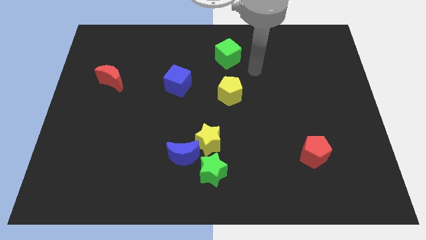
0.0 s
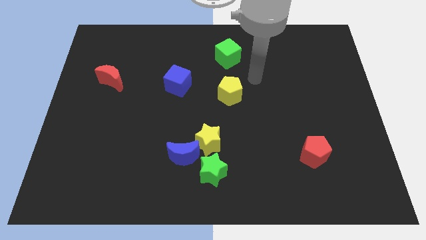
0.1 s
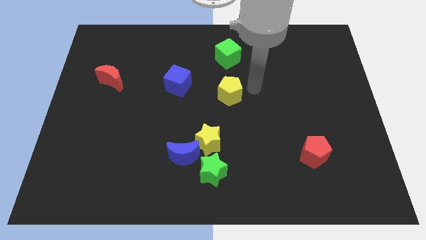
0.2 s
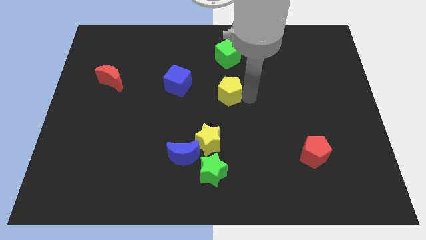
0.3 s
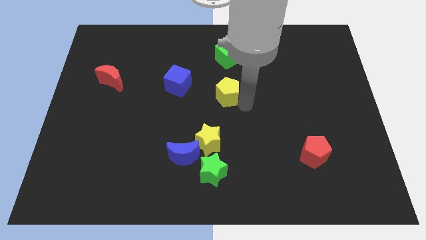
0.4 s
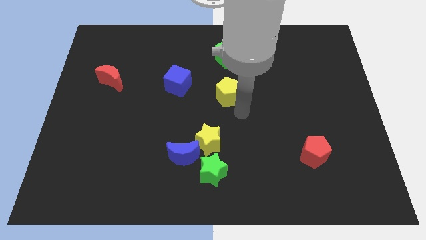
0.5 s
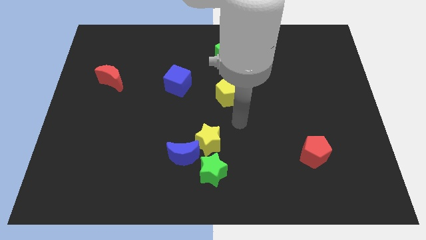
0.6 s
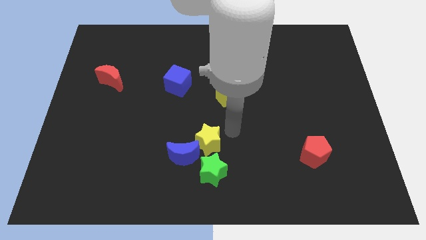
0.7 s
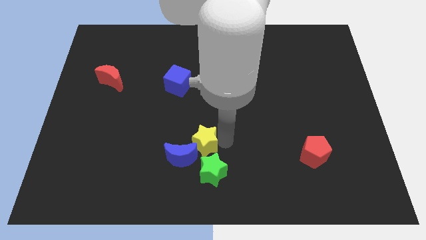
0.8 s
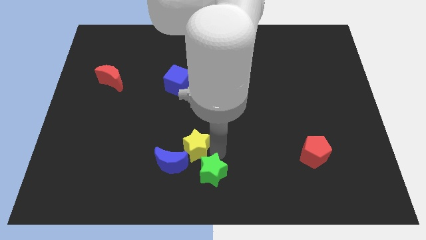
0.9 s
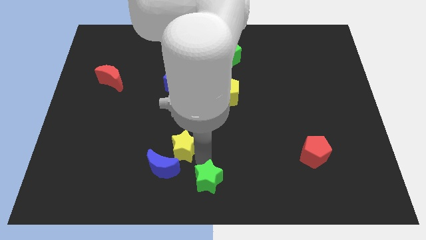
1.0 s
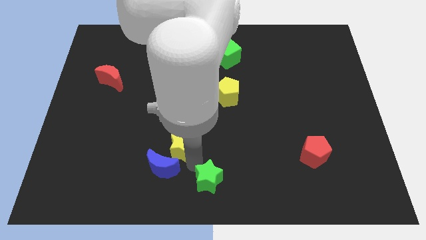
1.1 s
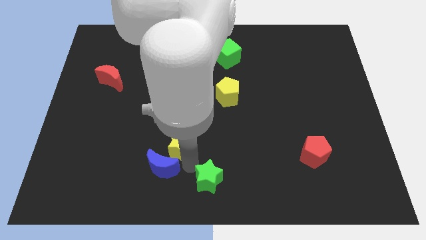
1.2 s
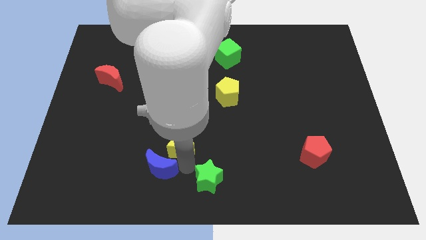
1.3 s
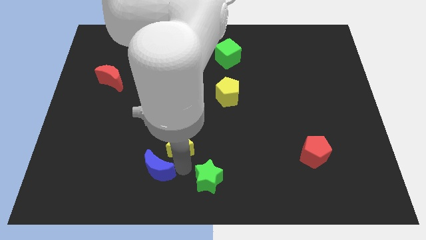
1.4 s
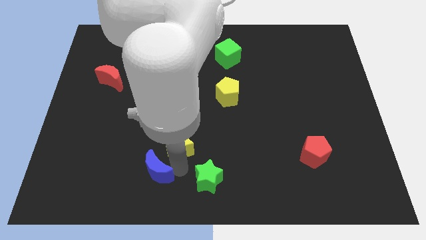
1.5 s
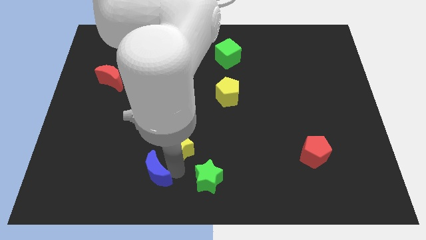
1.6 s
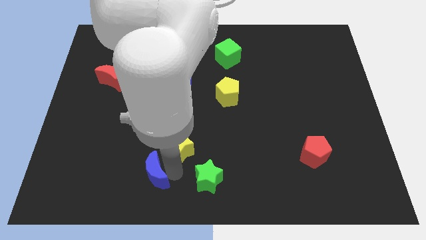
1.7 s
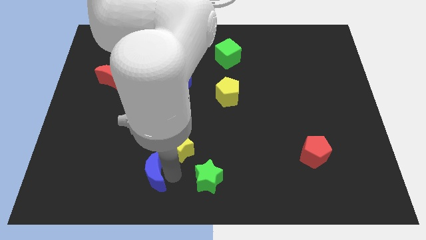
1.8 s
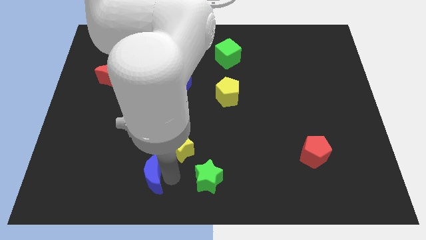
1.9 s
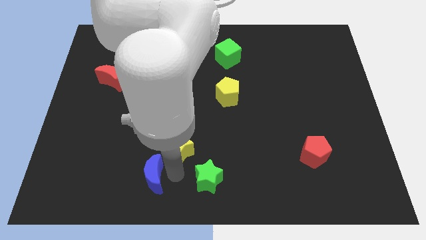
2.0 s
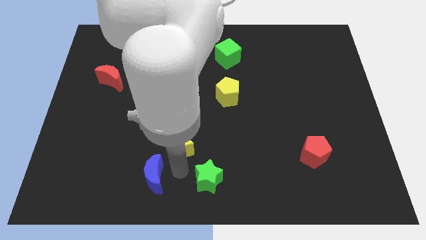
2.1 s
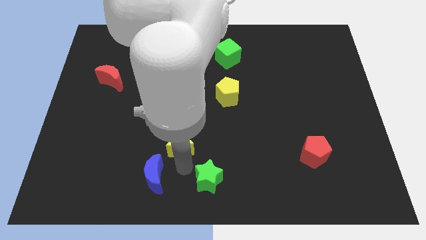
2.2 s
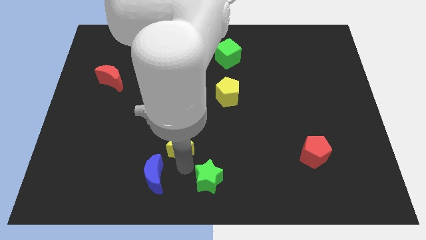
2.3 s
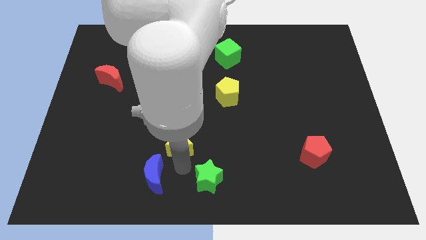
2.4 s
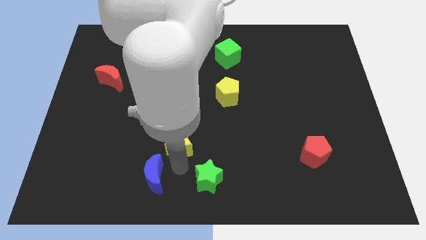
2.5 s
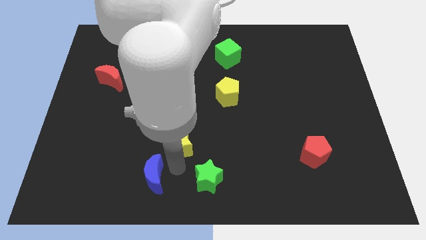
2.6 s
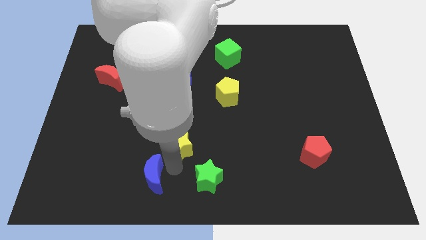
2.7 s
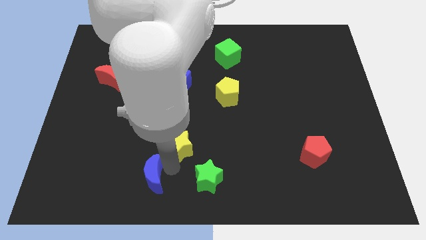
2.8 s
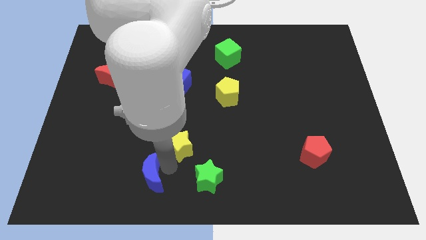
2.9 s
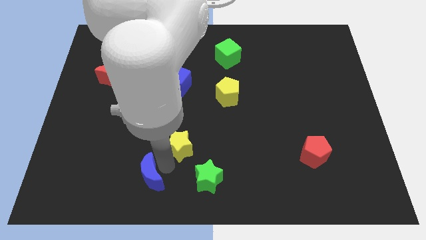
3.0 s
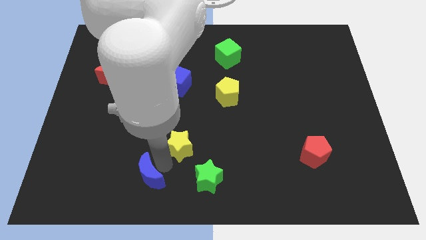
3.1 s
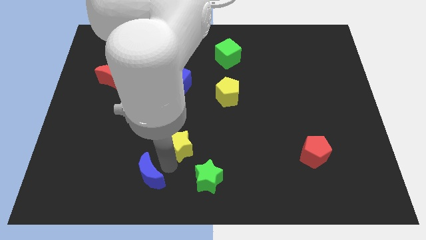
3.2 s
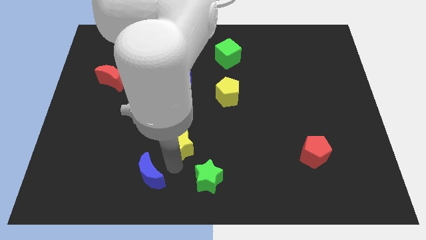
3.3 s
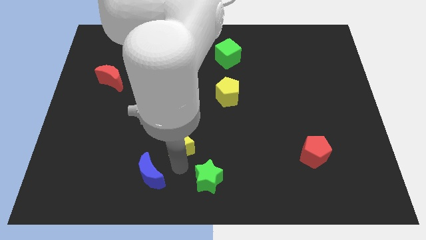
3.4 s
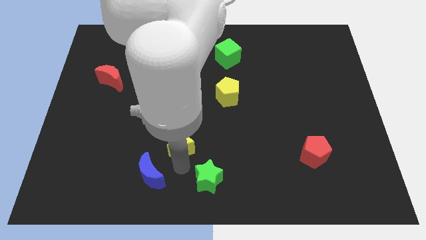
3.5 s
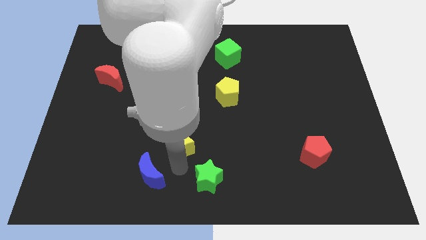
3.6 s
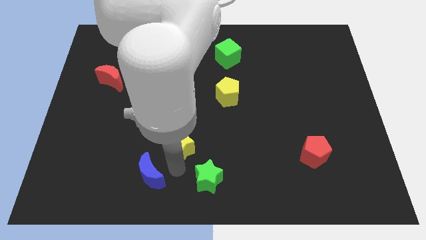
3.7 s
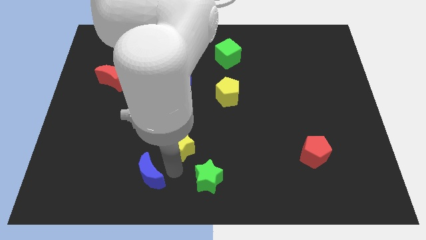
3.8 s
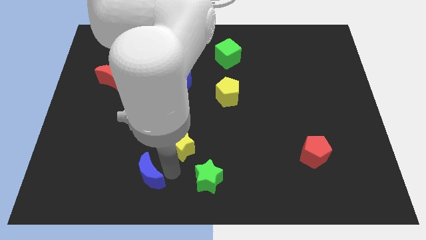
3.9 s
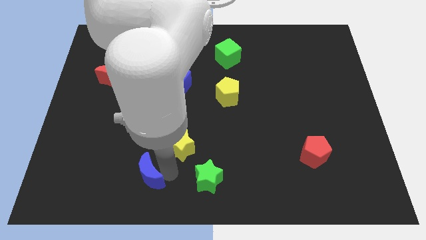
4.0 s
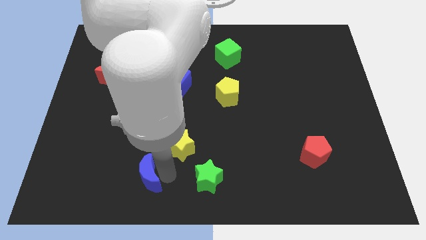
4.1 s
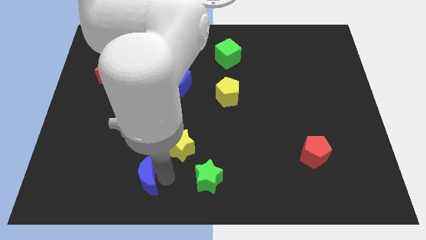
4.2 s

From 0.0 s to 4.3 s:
separate the blue moon from the yellow star and green star

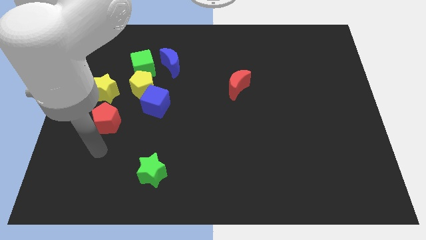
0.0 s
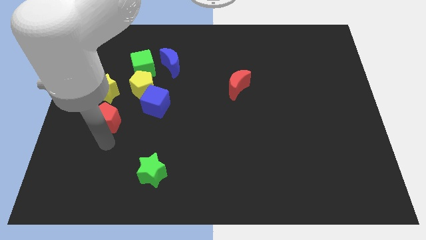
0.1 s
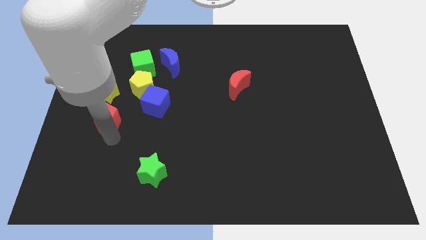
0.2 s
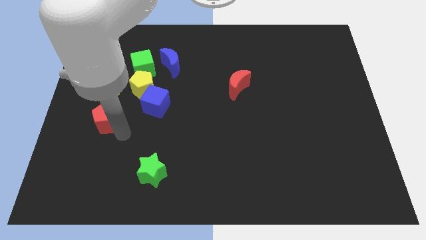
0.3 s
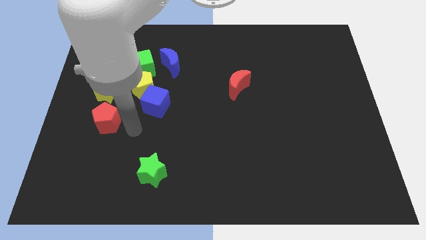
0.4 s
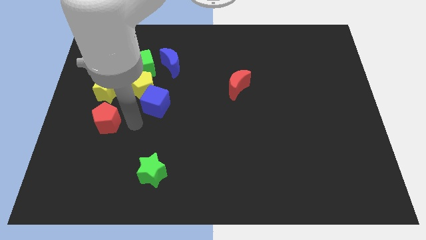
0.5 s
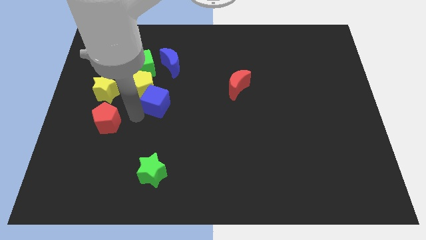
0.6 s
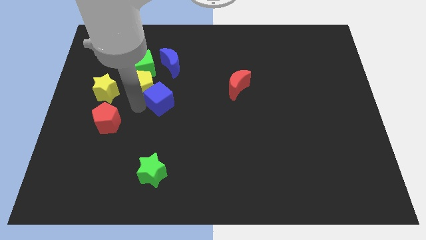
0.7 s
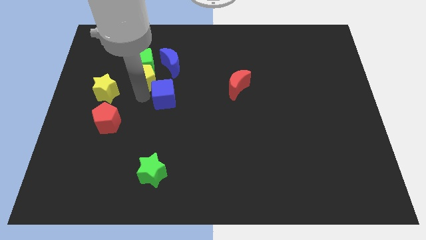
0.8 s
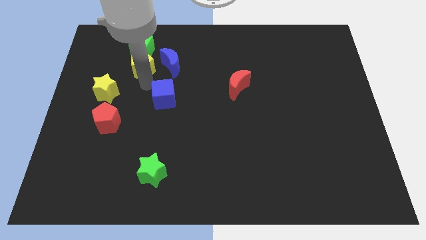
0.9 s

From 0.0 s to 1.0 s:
separate the blue cube from the yellow pentagon

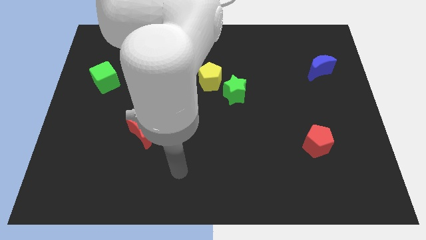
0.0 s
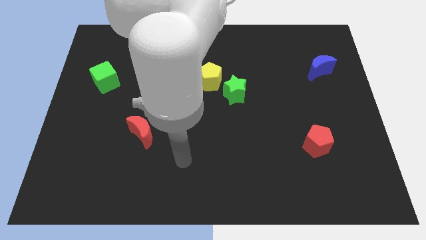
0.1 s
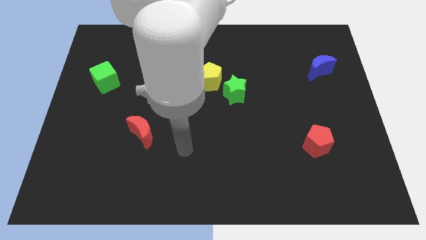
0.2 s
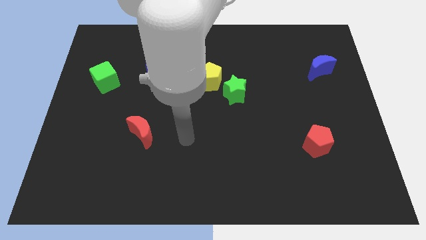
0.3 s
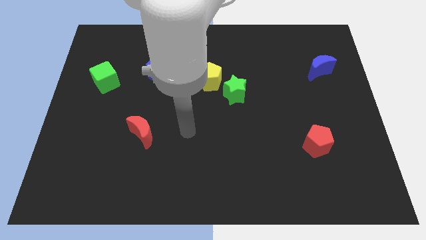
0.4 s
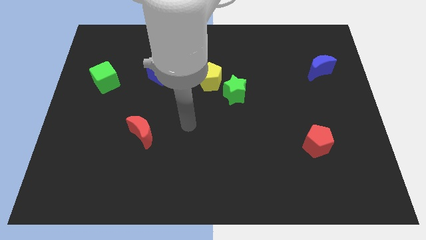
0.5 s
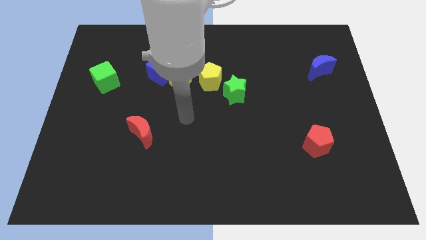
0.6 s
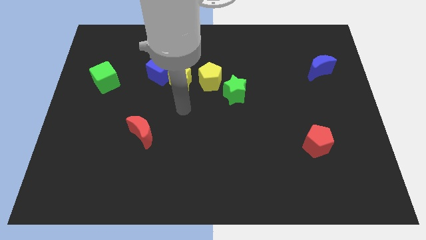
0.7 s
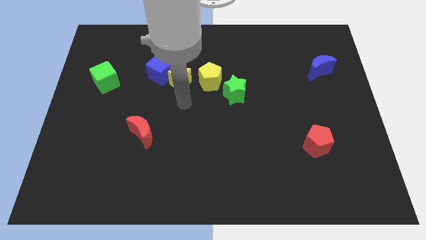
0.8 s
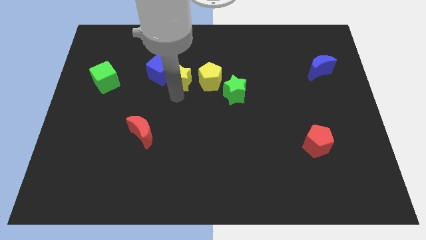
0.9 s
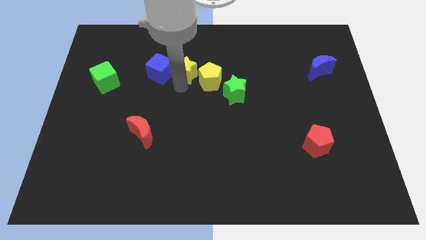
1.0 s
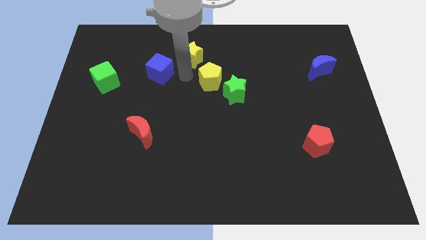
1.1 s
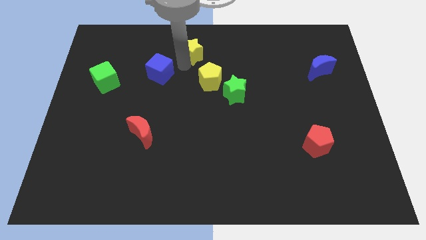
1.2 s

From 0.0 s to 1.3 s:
pull the blue cube apart from the yellow star

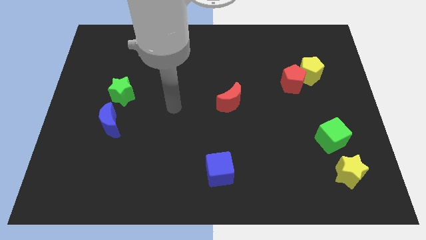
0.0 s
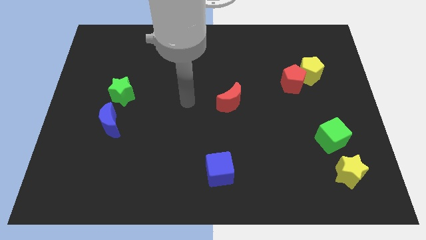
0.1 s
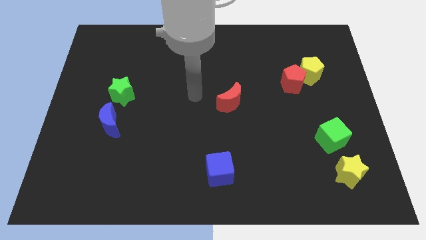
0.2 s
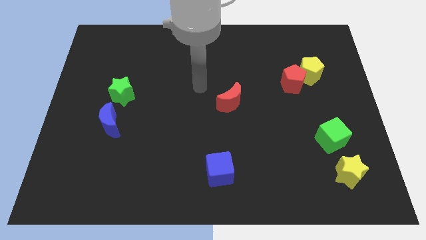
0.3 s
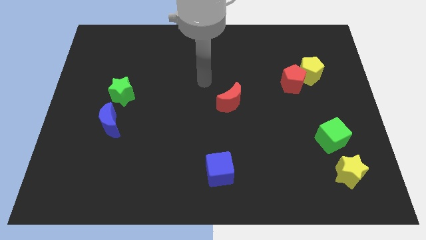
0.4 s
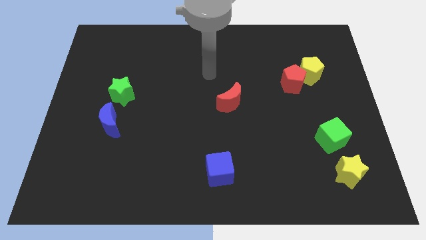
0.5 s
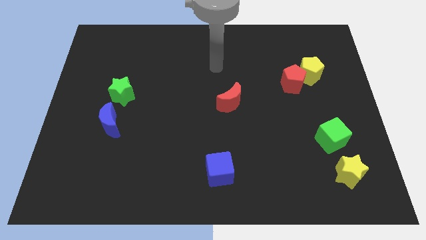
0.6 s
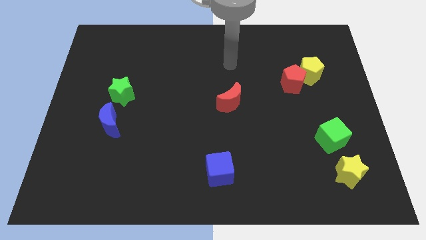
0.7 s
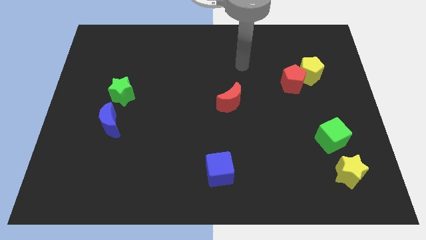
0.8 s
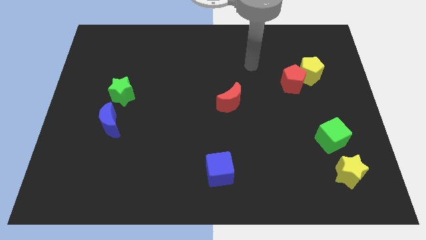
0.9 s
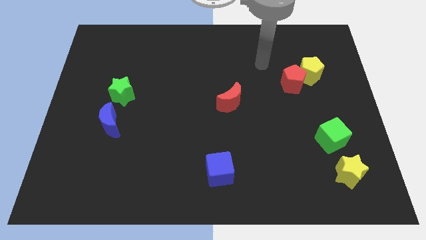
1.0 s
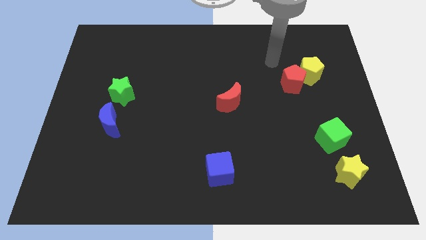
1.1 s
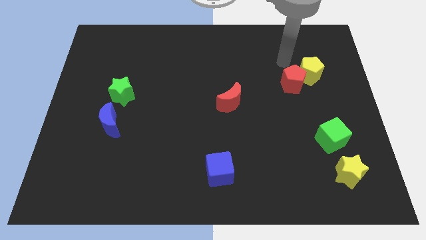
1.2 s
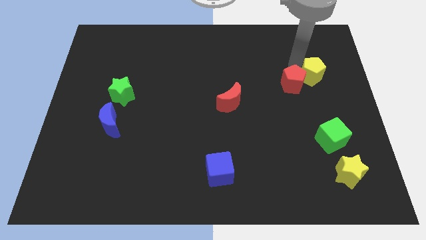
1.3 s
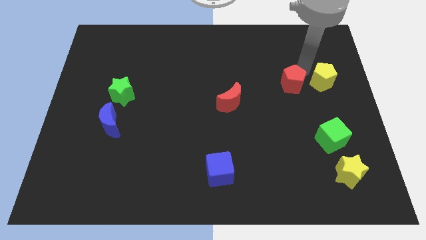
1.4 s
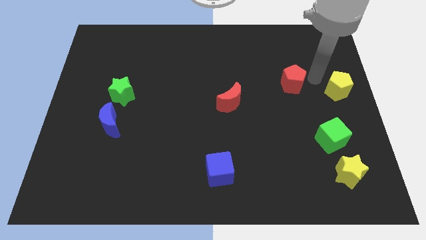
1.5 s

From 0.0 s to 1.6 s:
pull the red pentagon apart from the yellow pentagon

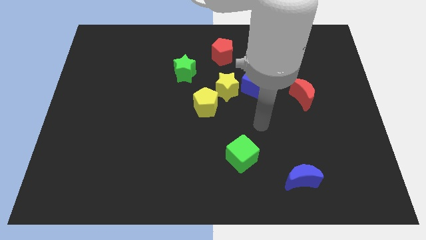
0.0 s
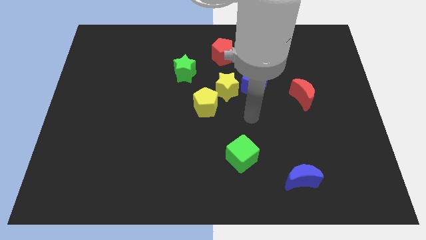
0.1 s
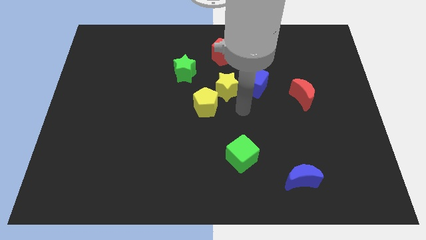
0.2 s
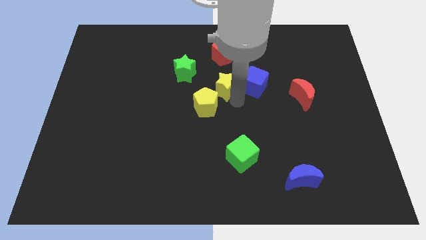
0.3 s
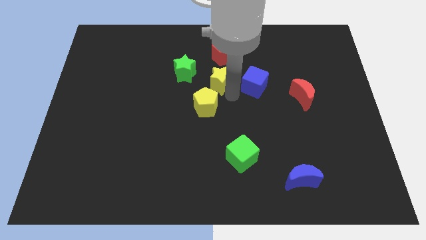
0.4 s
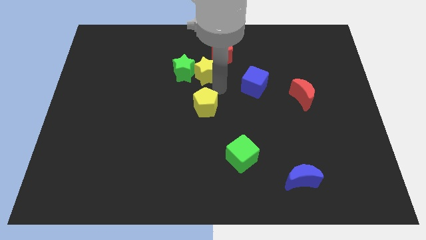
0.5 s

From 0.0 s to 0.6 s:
separate the yellow pentagon from the yellow star

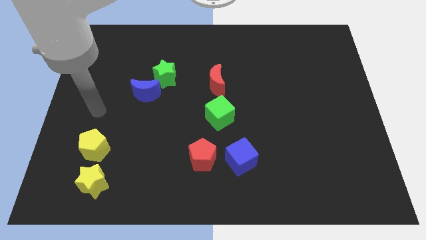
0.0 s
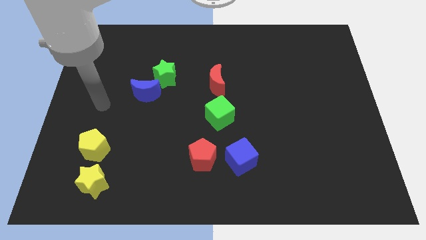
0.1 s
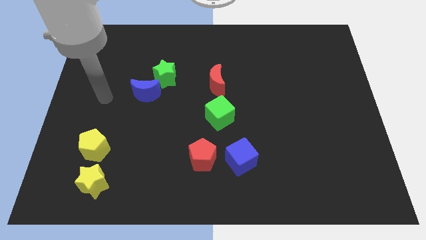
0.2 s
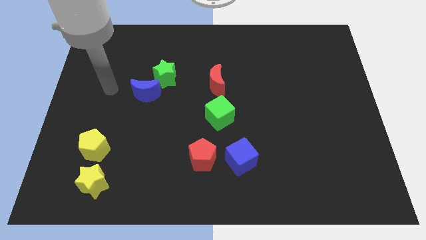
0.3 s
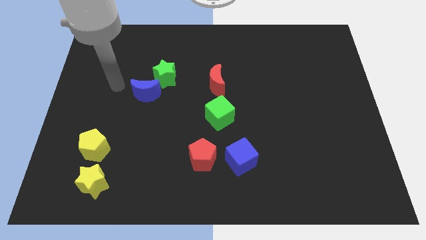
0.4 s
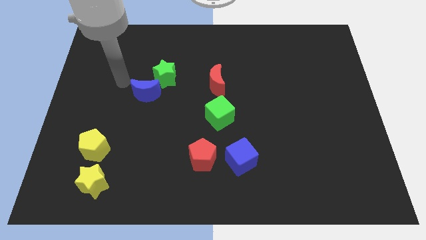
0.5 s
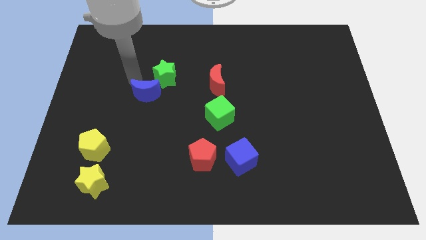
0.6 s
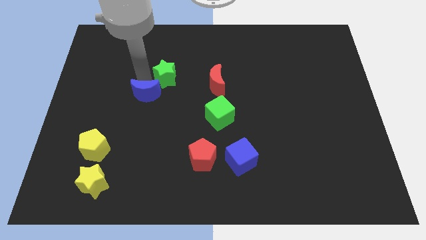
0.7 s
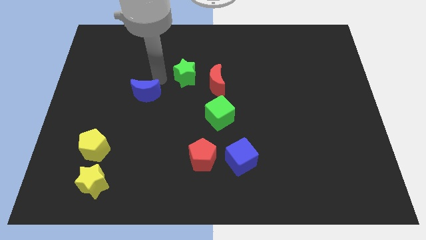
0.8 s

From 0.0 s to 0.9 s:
separate the blue moon from the green star
